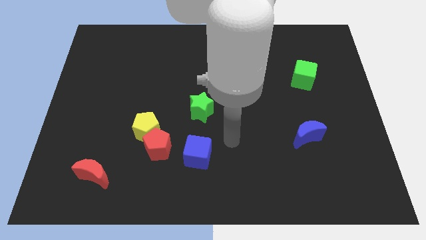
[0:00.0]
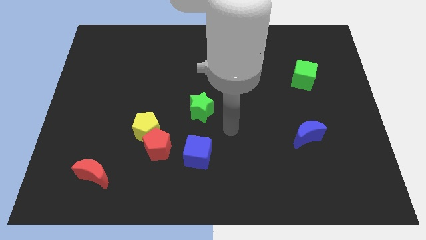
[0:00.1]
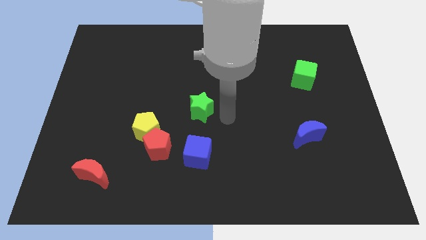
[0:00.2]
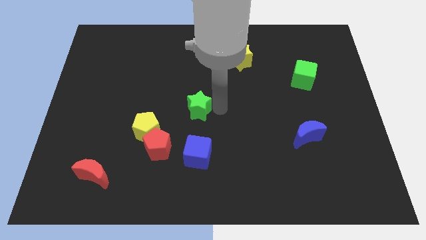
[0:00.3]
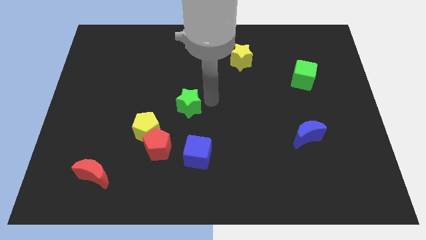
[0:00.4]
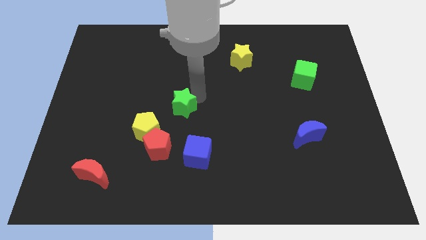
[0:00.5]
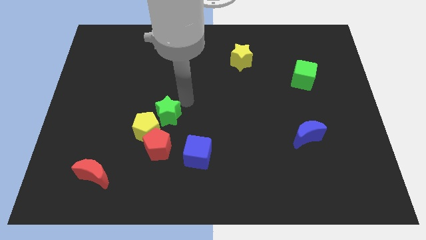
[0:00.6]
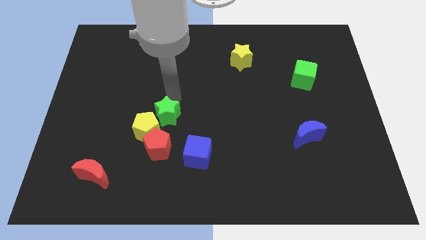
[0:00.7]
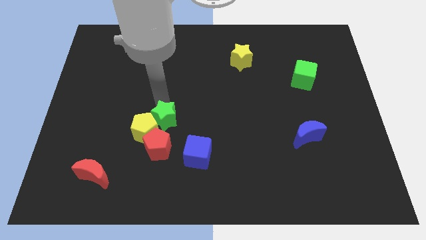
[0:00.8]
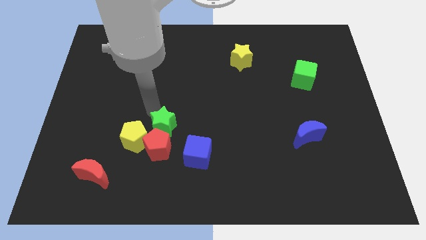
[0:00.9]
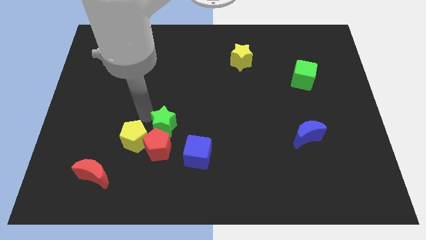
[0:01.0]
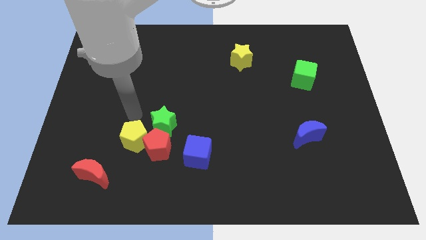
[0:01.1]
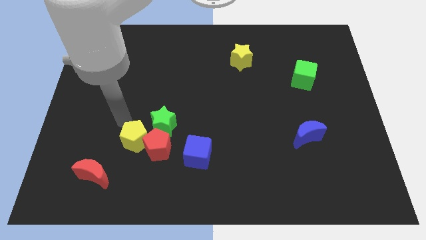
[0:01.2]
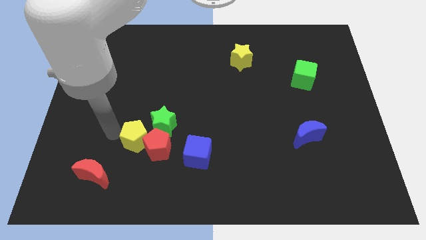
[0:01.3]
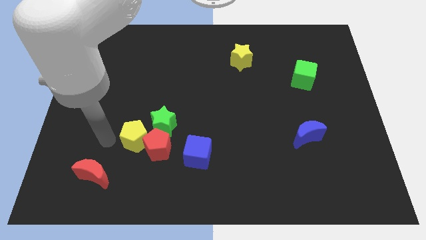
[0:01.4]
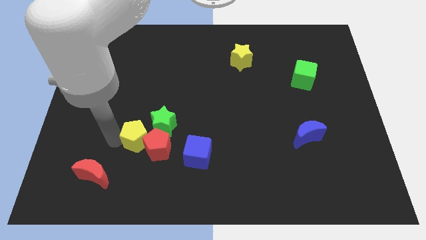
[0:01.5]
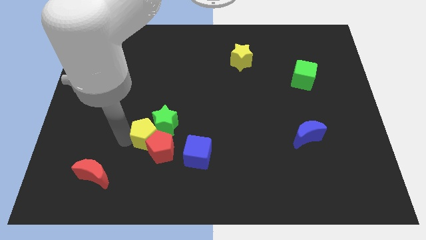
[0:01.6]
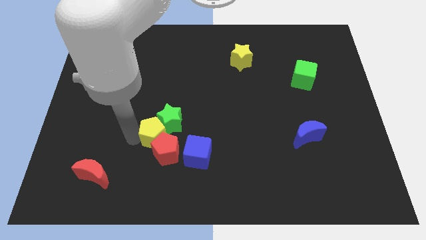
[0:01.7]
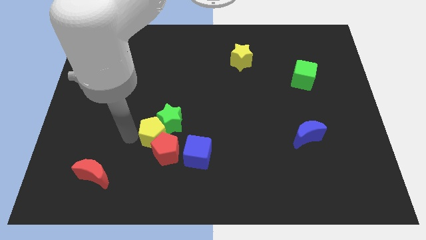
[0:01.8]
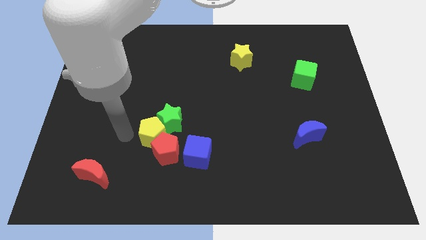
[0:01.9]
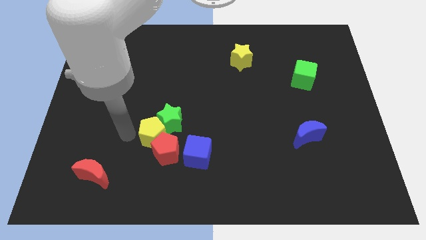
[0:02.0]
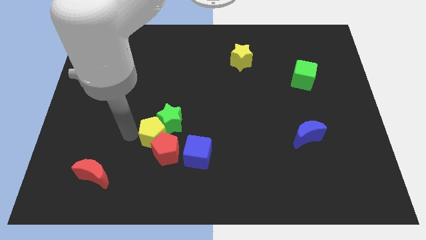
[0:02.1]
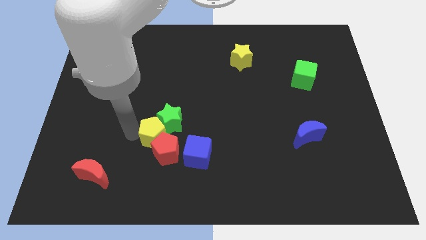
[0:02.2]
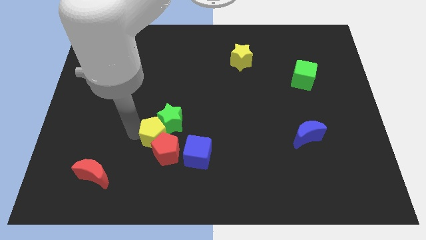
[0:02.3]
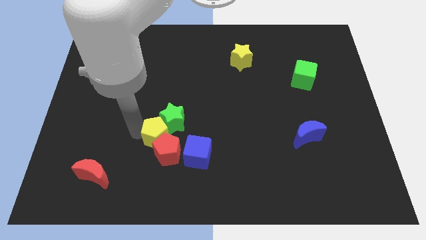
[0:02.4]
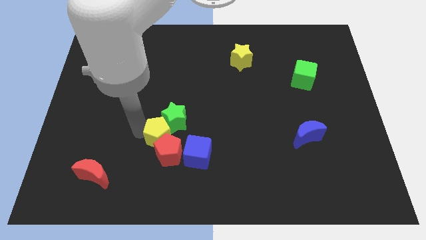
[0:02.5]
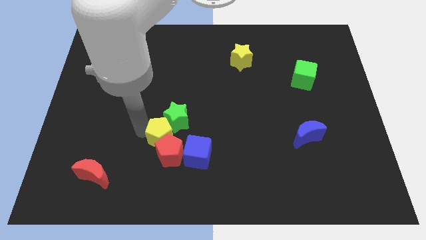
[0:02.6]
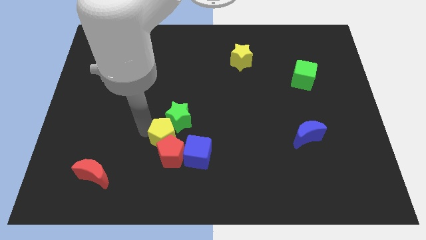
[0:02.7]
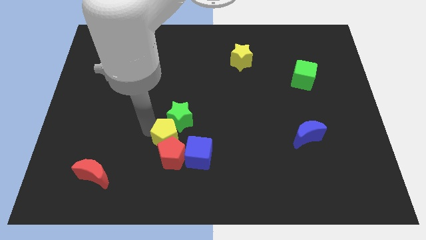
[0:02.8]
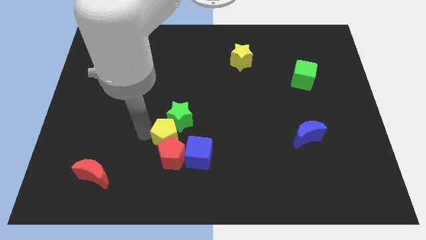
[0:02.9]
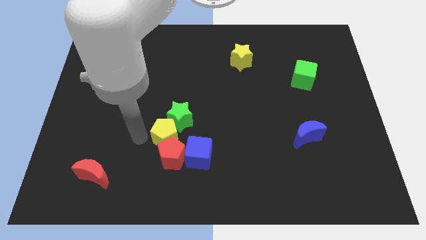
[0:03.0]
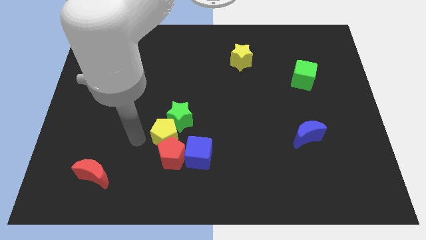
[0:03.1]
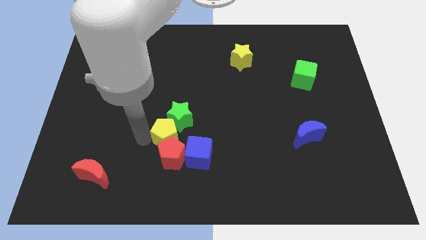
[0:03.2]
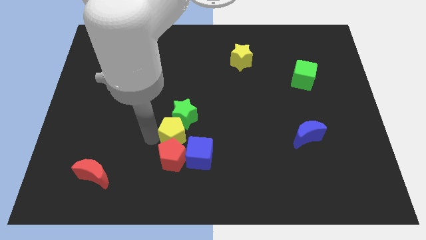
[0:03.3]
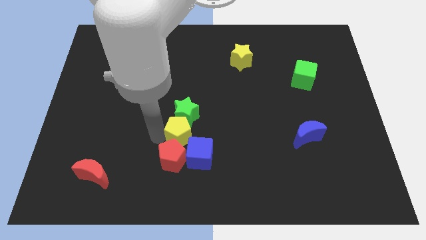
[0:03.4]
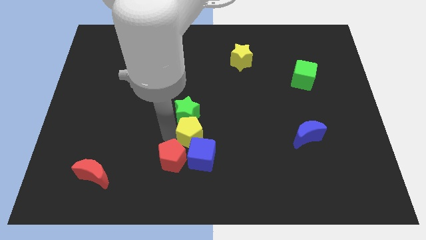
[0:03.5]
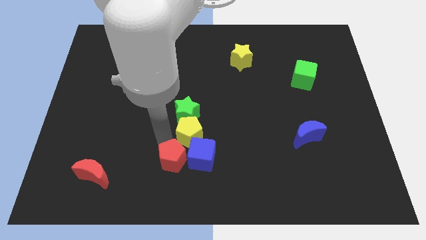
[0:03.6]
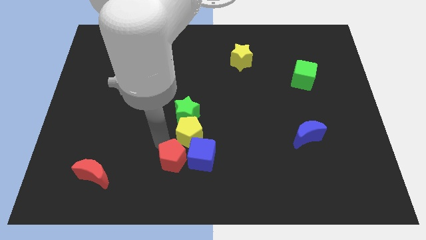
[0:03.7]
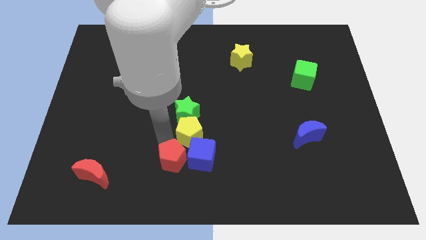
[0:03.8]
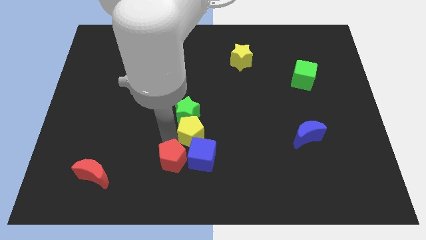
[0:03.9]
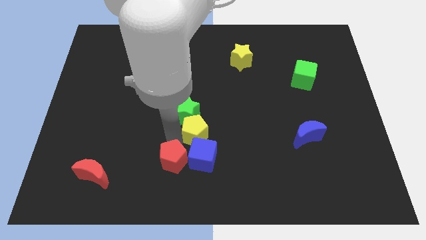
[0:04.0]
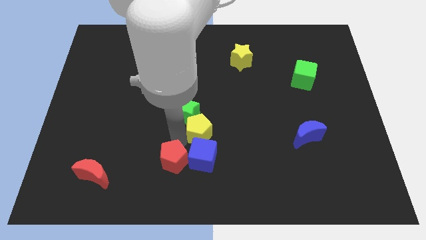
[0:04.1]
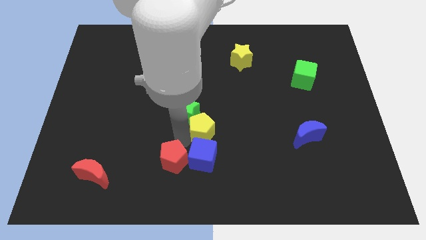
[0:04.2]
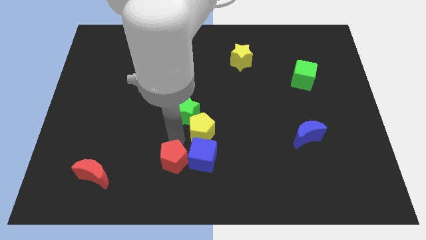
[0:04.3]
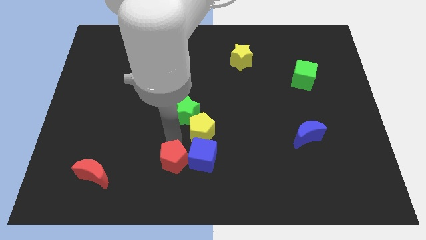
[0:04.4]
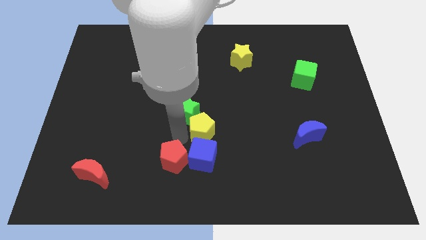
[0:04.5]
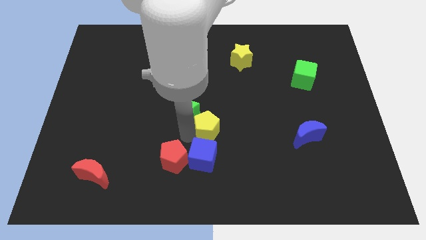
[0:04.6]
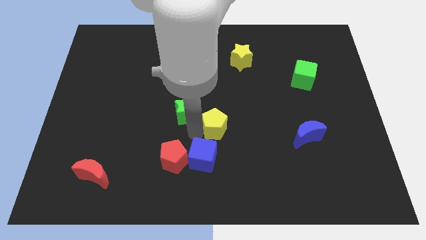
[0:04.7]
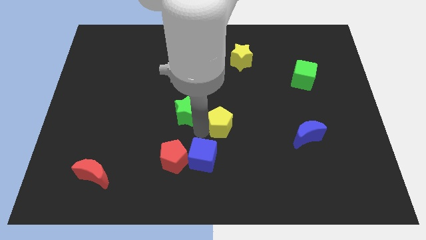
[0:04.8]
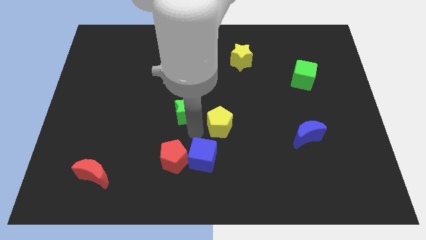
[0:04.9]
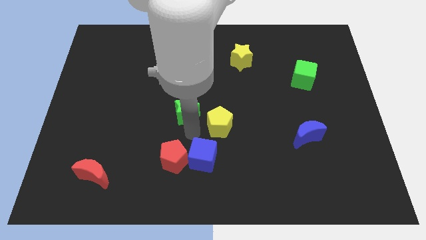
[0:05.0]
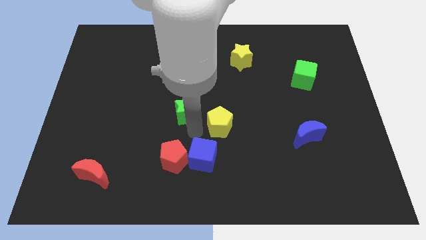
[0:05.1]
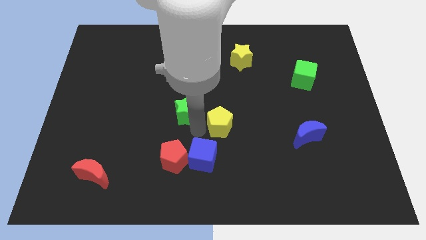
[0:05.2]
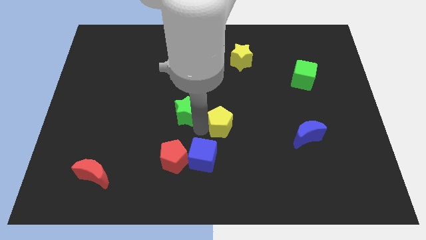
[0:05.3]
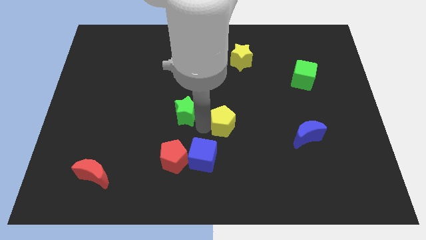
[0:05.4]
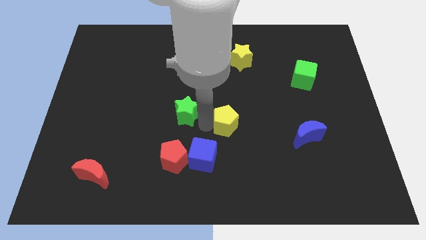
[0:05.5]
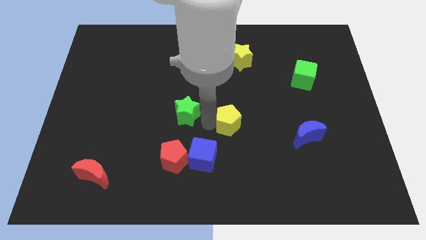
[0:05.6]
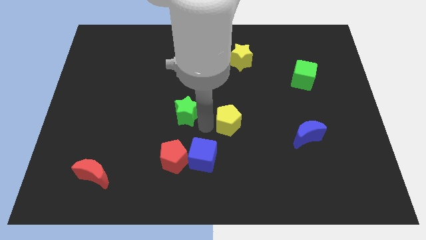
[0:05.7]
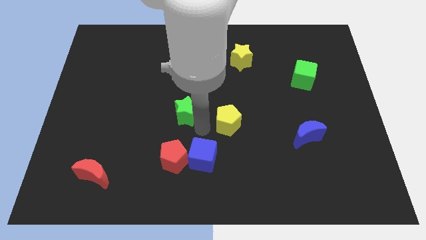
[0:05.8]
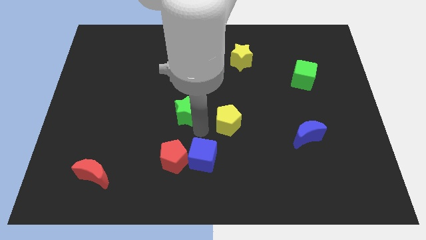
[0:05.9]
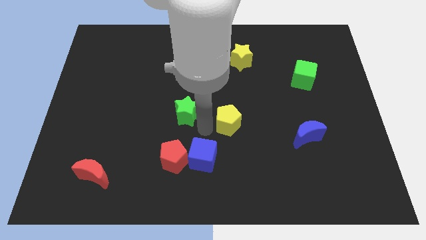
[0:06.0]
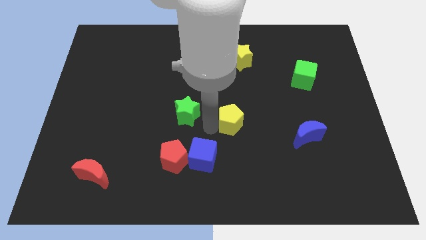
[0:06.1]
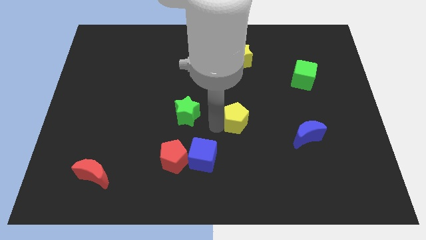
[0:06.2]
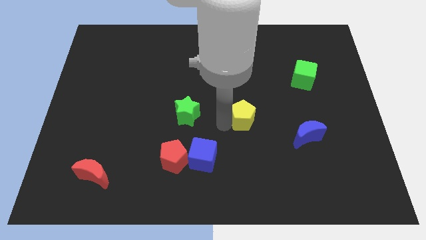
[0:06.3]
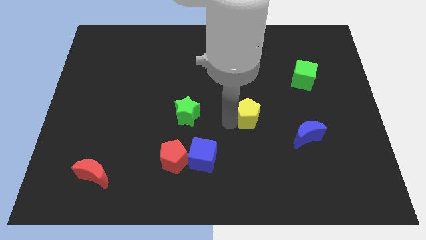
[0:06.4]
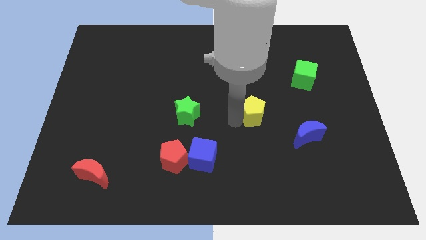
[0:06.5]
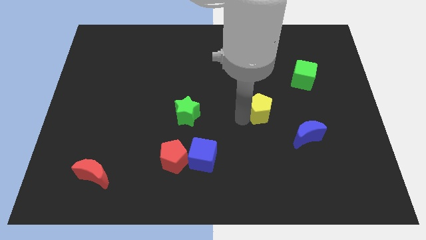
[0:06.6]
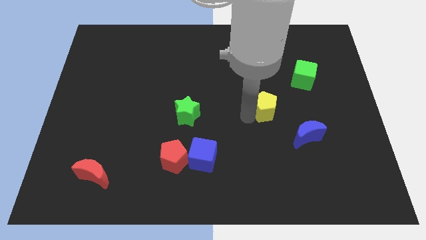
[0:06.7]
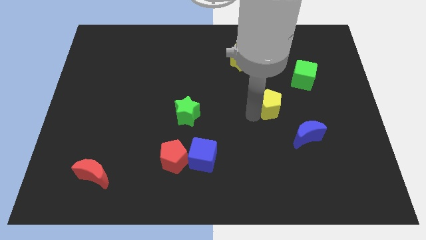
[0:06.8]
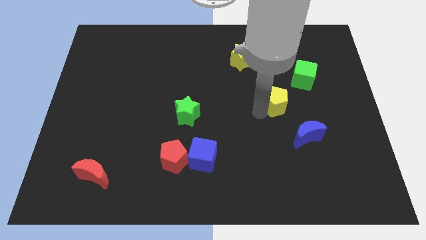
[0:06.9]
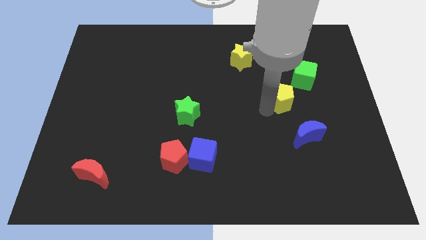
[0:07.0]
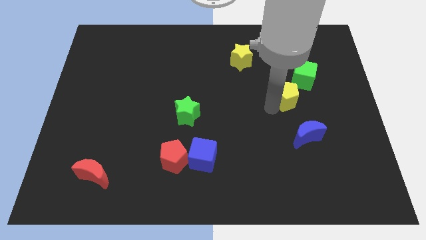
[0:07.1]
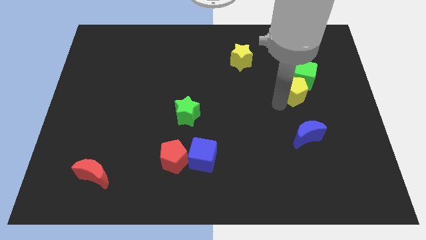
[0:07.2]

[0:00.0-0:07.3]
move the yellow pentagon to the green cube
